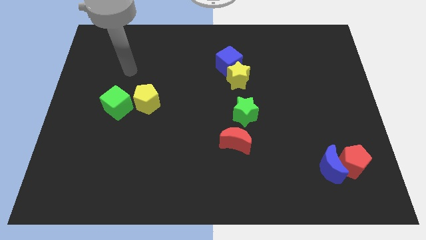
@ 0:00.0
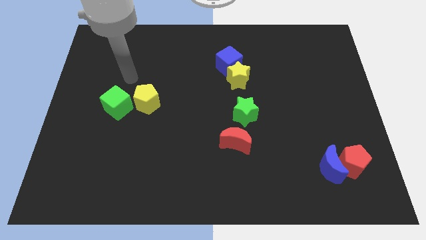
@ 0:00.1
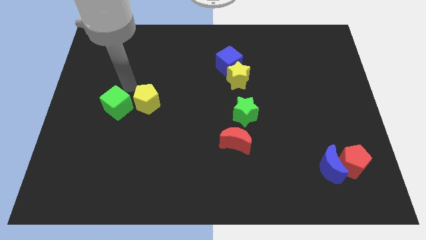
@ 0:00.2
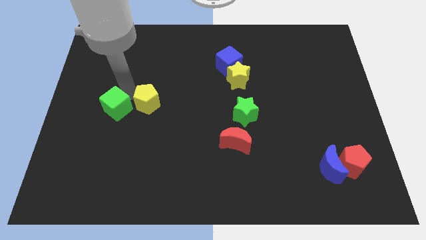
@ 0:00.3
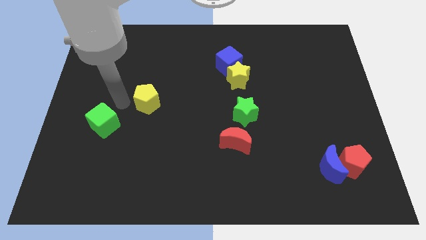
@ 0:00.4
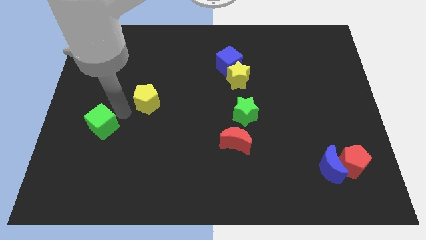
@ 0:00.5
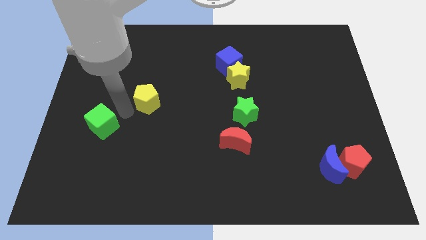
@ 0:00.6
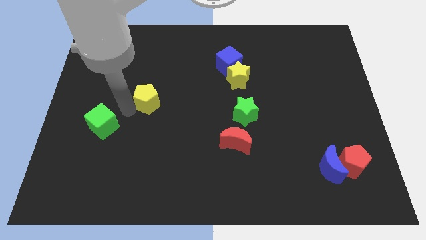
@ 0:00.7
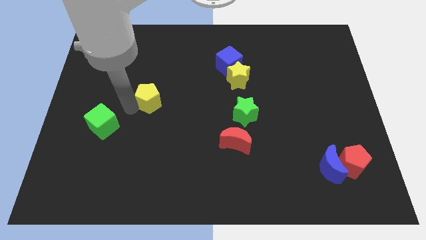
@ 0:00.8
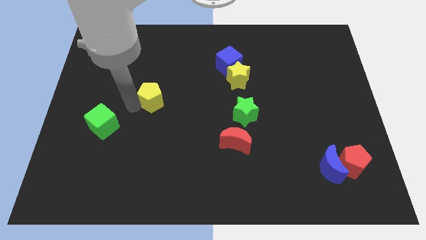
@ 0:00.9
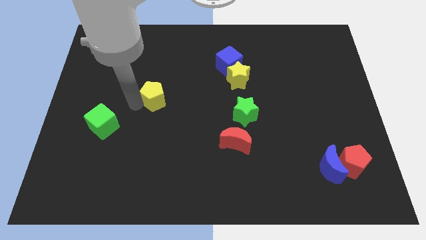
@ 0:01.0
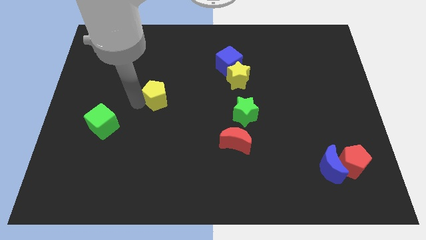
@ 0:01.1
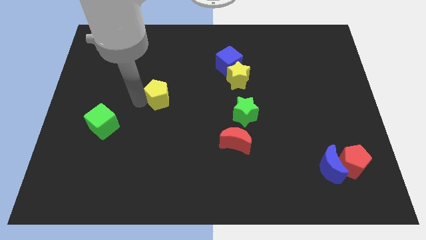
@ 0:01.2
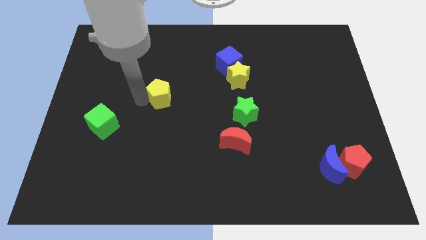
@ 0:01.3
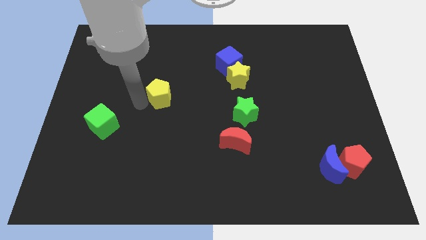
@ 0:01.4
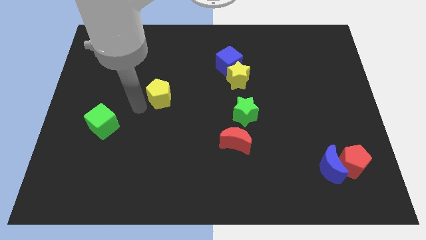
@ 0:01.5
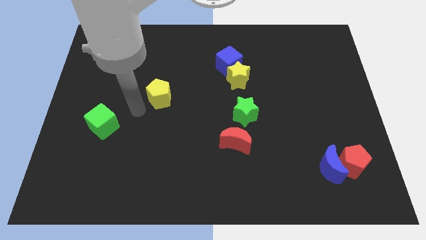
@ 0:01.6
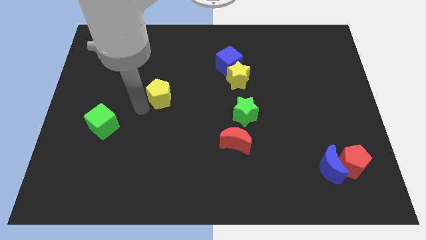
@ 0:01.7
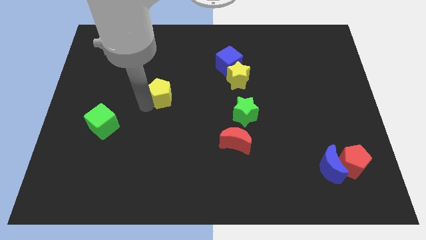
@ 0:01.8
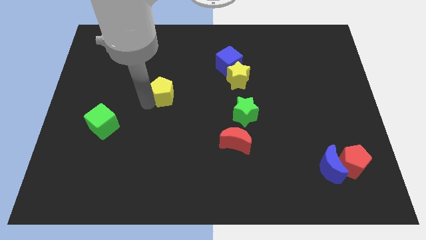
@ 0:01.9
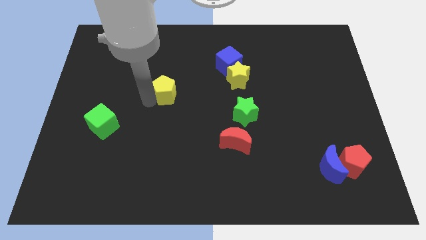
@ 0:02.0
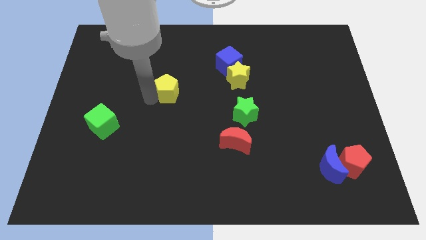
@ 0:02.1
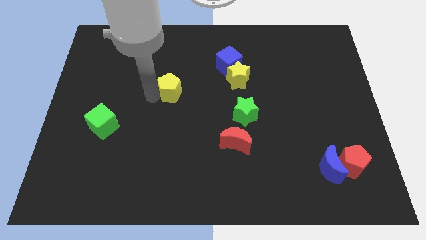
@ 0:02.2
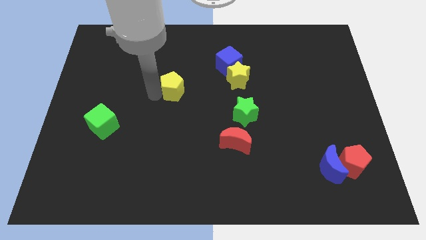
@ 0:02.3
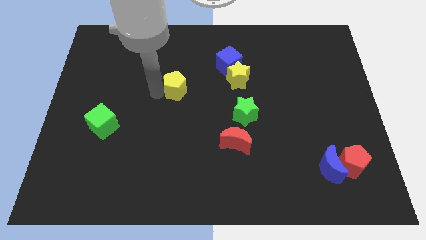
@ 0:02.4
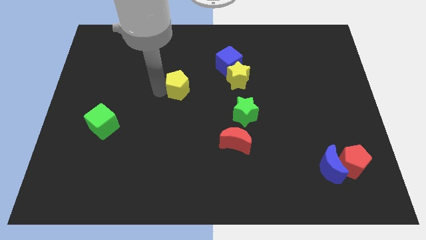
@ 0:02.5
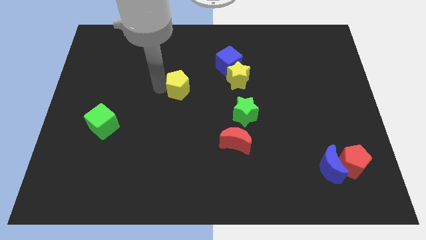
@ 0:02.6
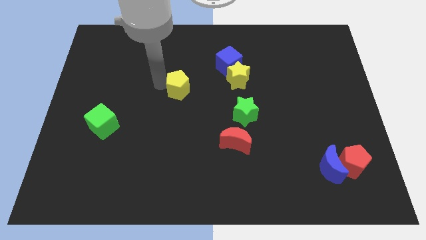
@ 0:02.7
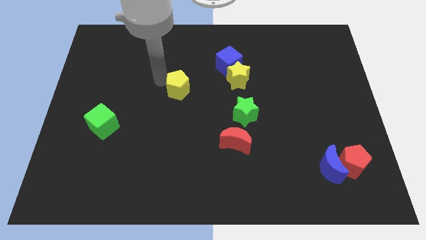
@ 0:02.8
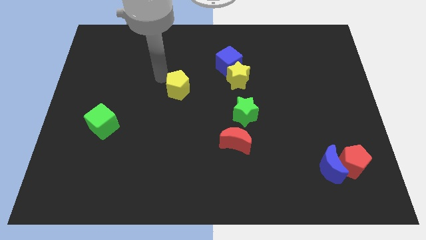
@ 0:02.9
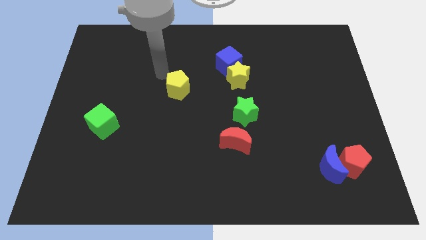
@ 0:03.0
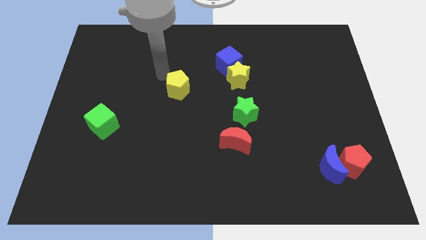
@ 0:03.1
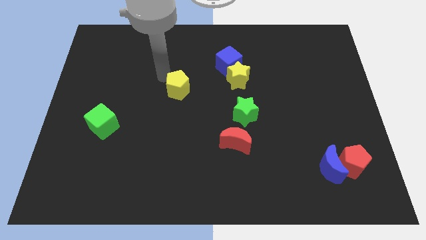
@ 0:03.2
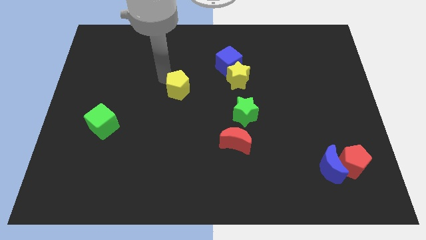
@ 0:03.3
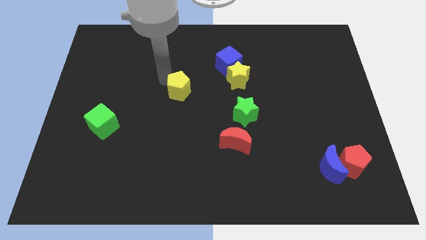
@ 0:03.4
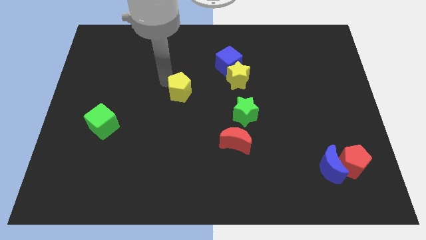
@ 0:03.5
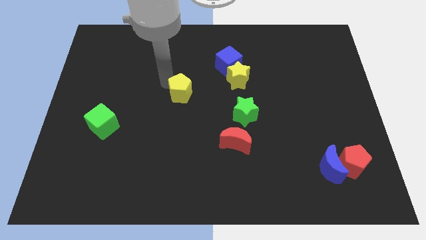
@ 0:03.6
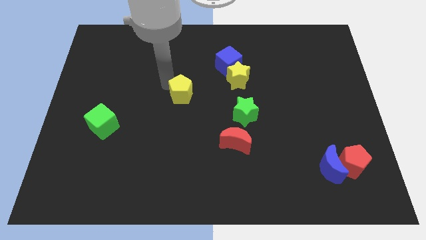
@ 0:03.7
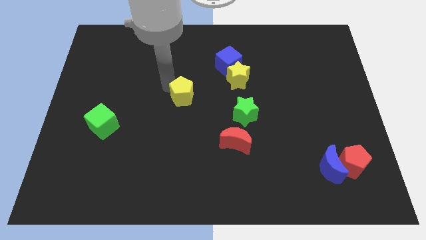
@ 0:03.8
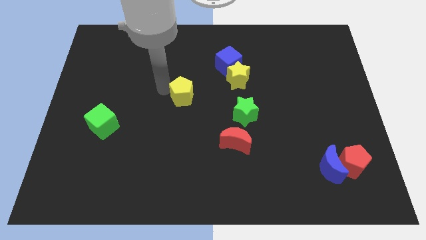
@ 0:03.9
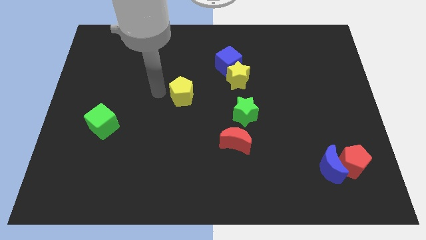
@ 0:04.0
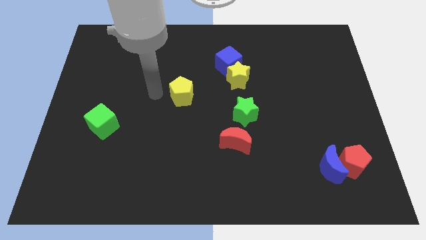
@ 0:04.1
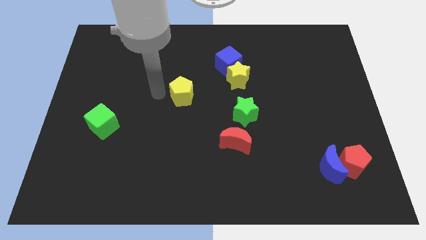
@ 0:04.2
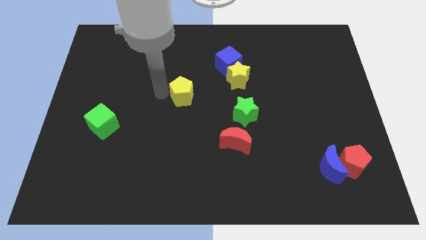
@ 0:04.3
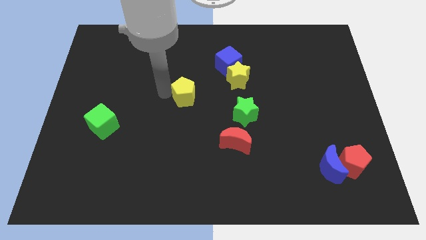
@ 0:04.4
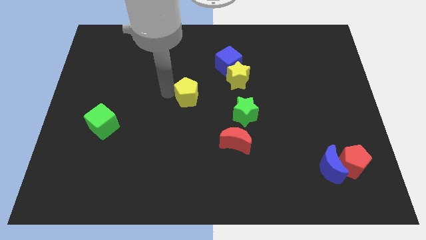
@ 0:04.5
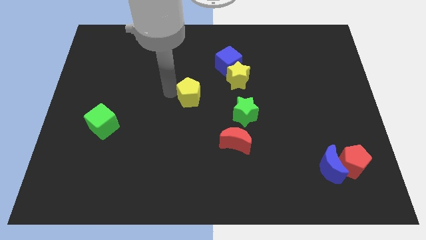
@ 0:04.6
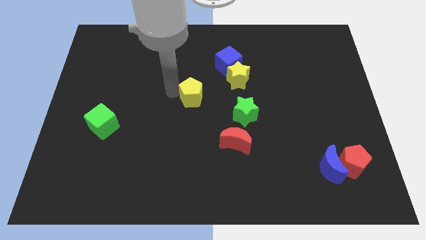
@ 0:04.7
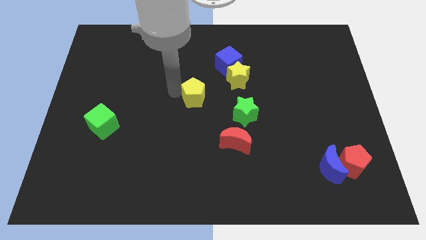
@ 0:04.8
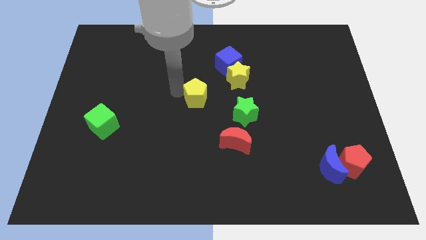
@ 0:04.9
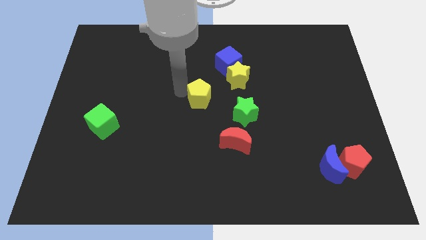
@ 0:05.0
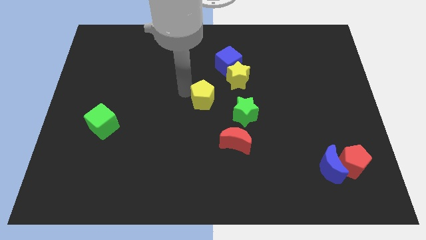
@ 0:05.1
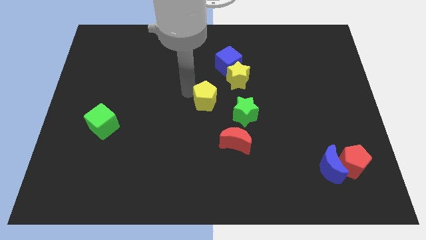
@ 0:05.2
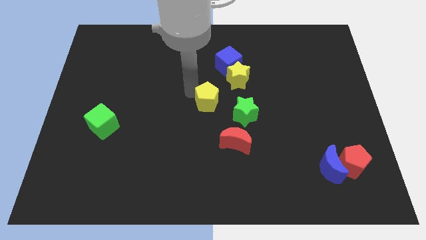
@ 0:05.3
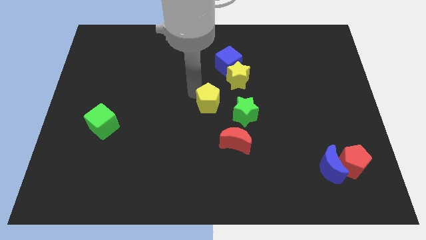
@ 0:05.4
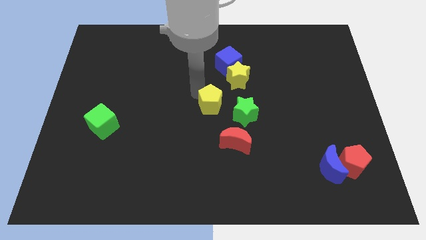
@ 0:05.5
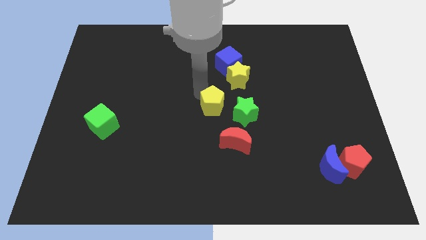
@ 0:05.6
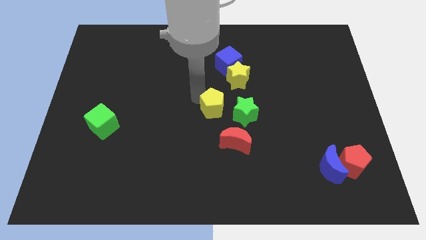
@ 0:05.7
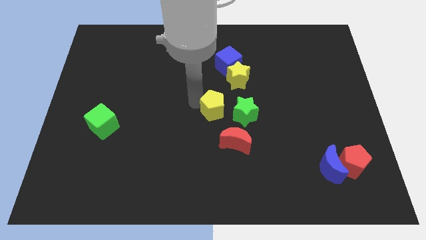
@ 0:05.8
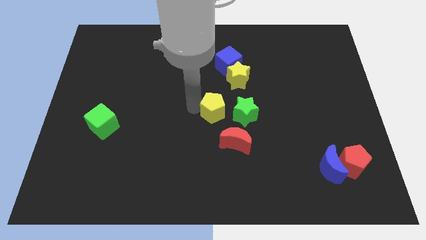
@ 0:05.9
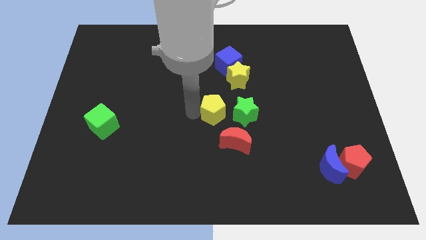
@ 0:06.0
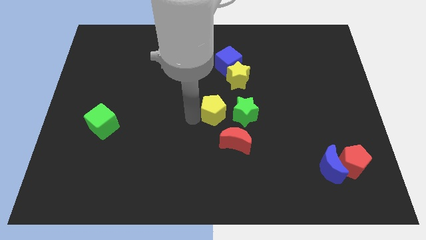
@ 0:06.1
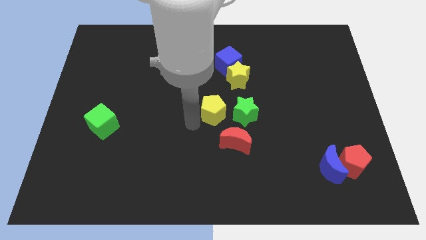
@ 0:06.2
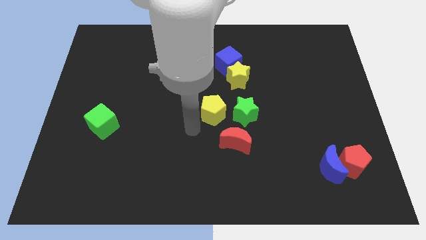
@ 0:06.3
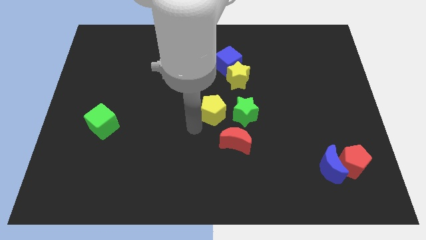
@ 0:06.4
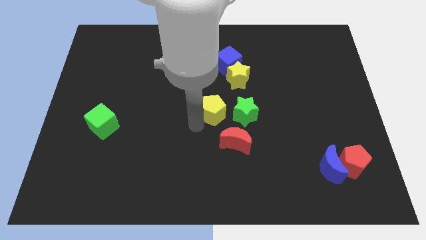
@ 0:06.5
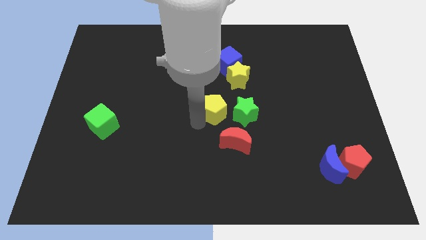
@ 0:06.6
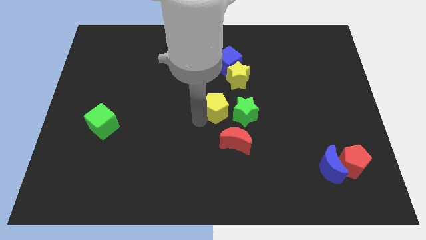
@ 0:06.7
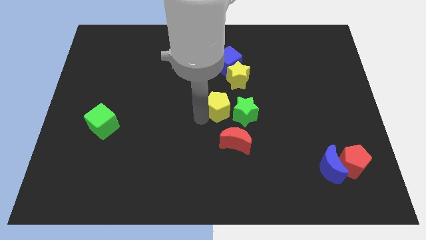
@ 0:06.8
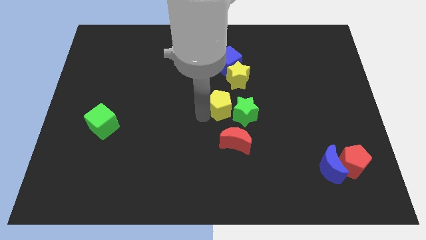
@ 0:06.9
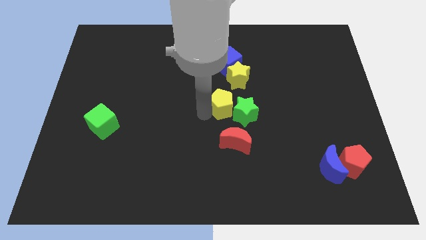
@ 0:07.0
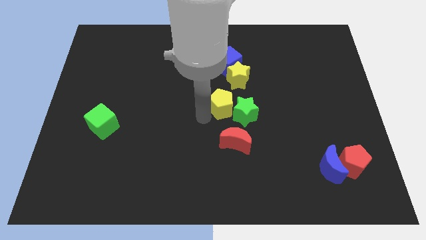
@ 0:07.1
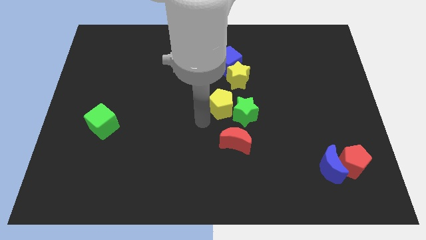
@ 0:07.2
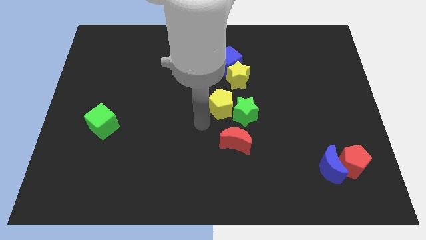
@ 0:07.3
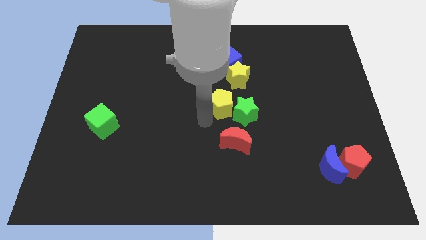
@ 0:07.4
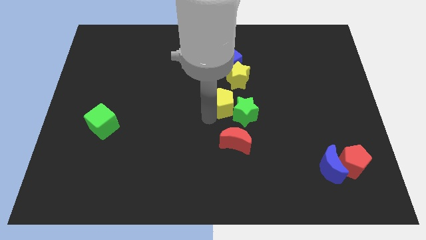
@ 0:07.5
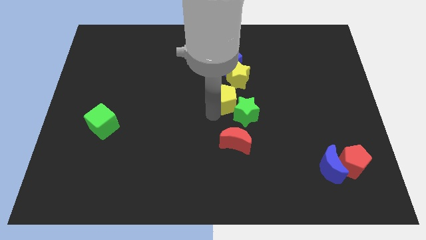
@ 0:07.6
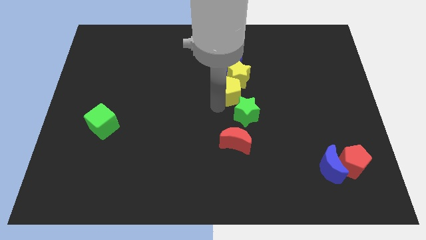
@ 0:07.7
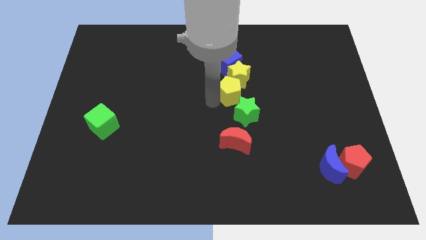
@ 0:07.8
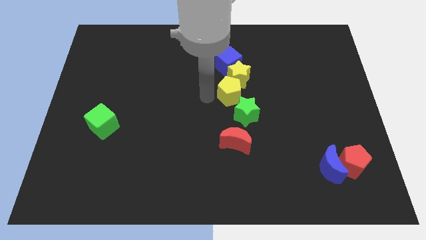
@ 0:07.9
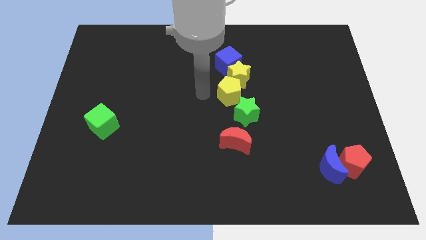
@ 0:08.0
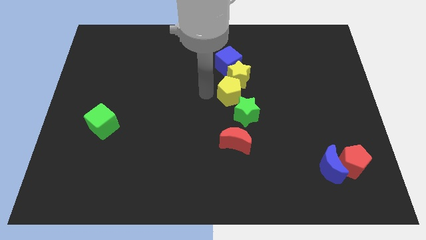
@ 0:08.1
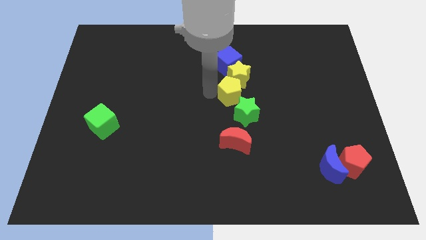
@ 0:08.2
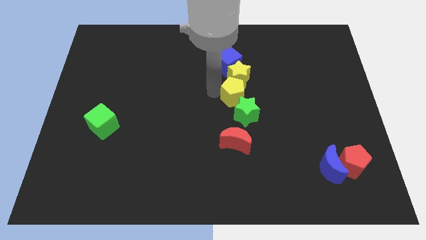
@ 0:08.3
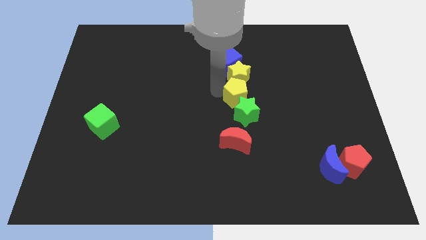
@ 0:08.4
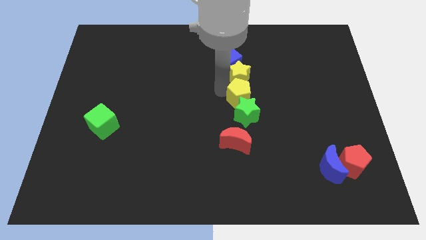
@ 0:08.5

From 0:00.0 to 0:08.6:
push the yellow pentagon diagonally up and to the right of the green star
